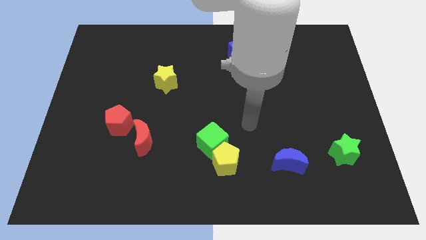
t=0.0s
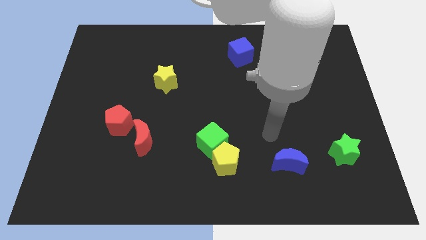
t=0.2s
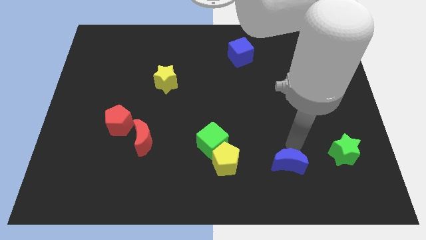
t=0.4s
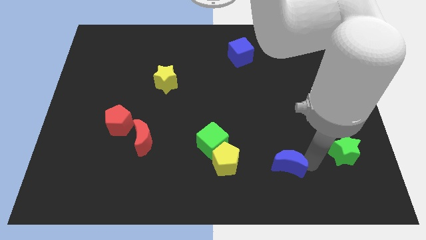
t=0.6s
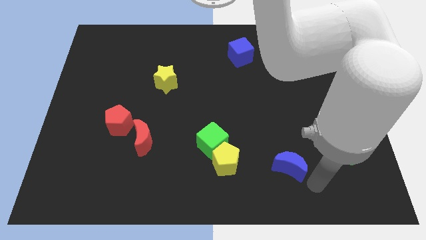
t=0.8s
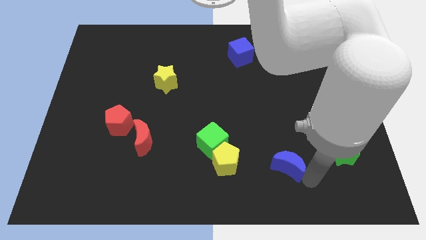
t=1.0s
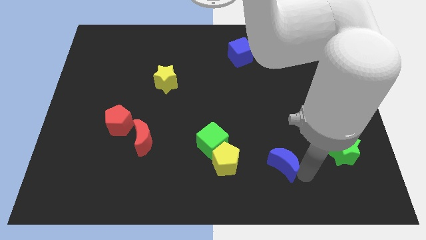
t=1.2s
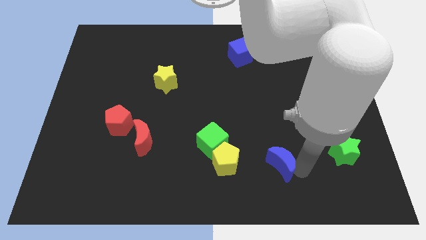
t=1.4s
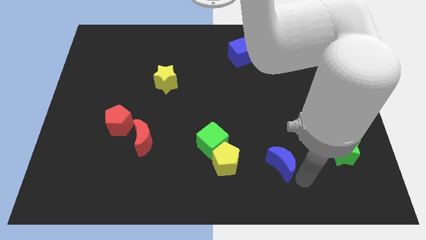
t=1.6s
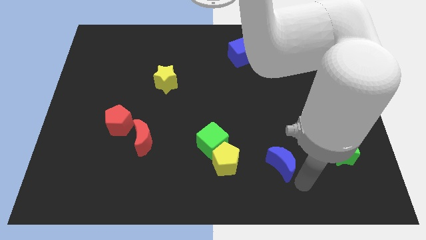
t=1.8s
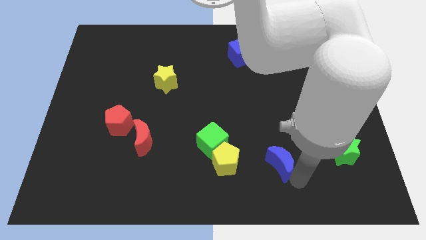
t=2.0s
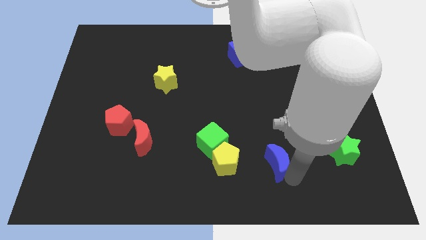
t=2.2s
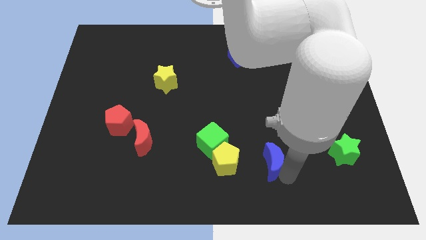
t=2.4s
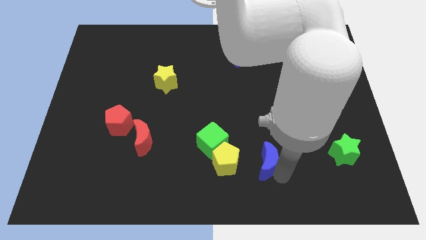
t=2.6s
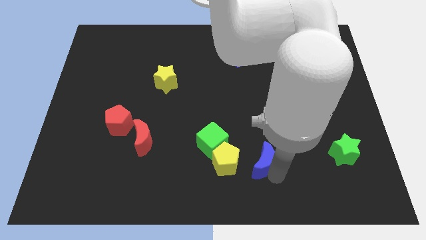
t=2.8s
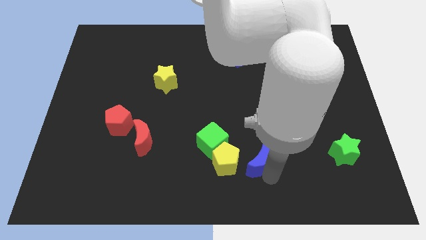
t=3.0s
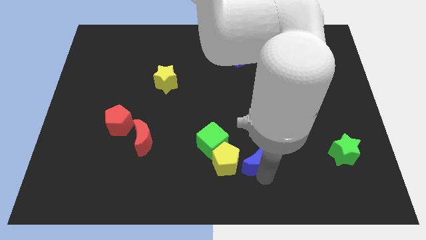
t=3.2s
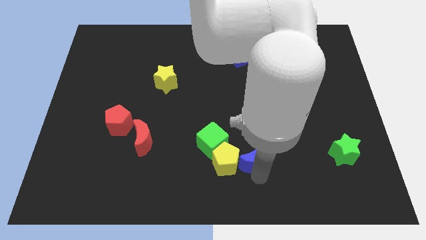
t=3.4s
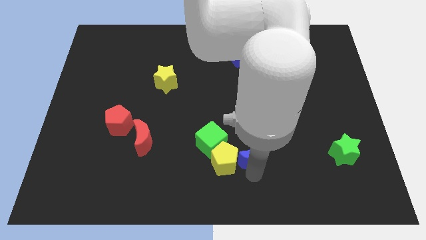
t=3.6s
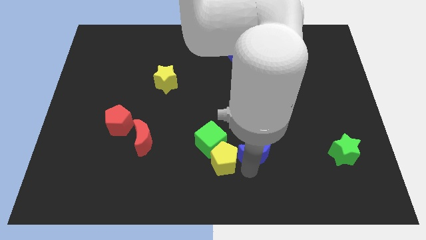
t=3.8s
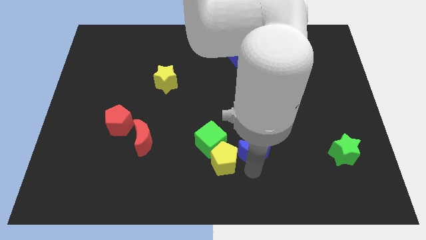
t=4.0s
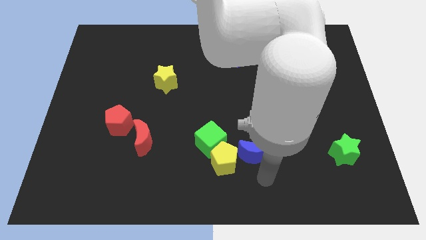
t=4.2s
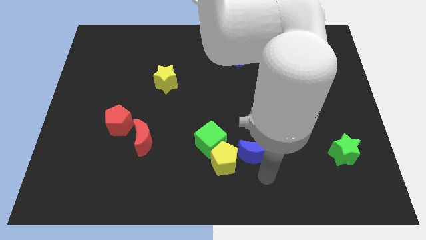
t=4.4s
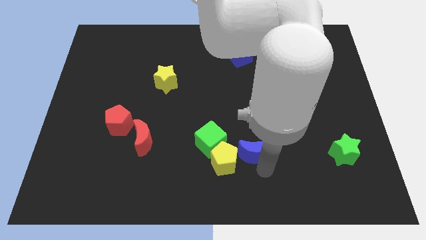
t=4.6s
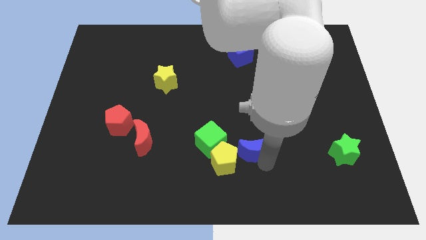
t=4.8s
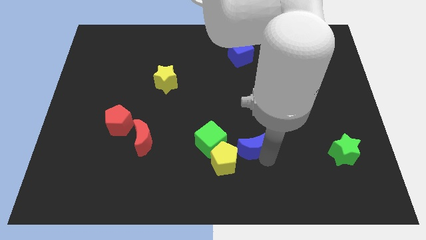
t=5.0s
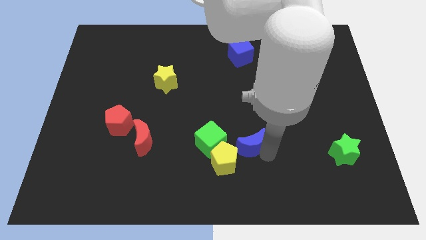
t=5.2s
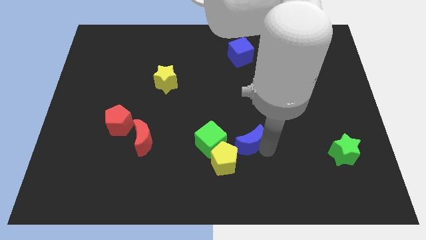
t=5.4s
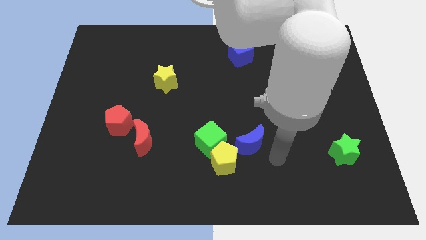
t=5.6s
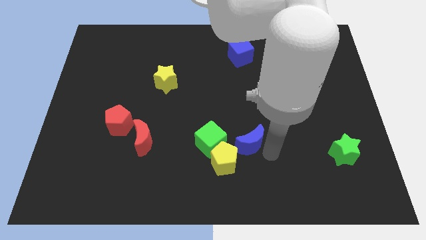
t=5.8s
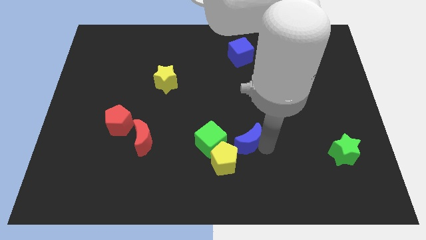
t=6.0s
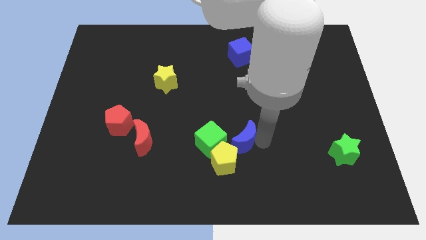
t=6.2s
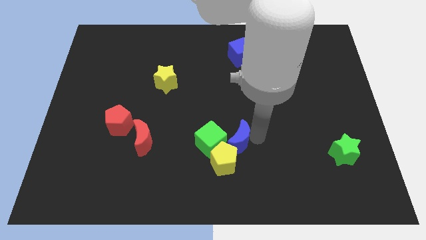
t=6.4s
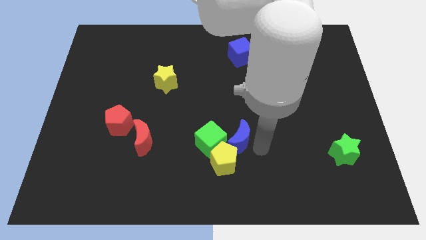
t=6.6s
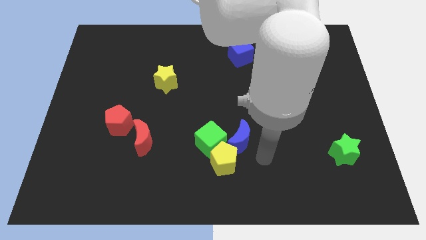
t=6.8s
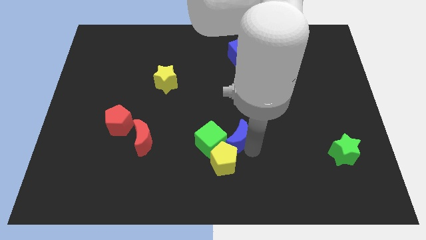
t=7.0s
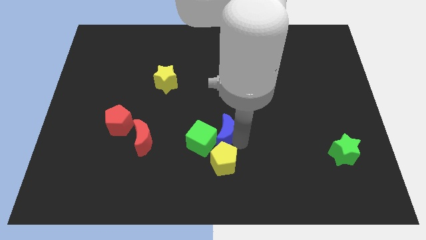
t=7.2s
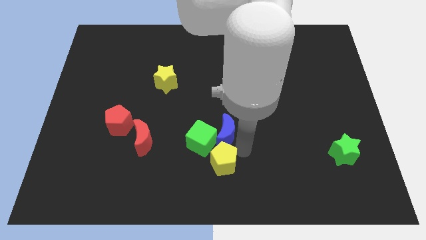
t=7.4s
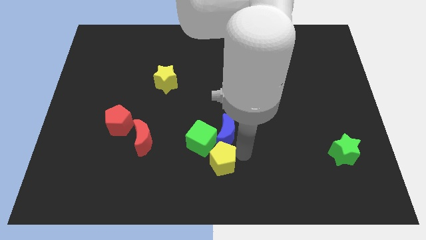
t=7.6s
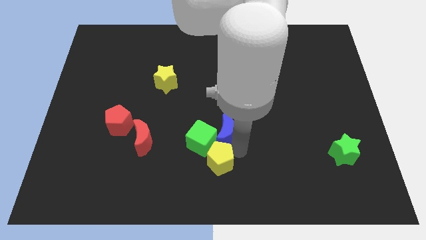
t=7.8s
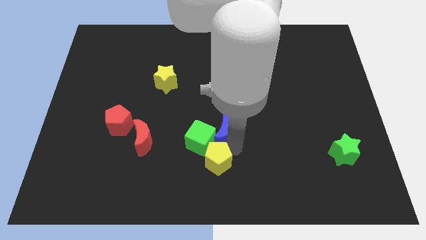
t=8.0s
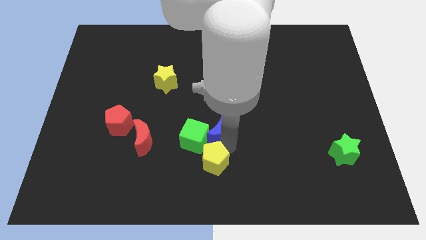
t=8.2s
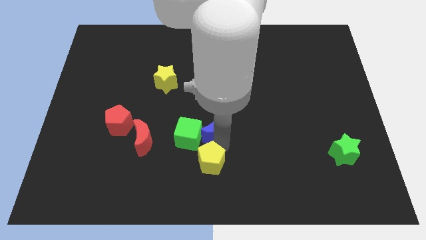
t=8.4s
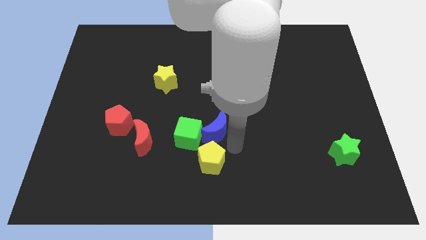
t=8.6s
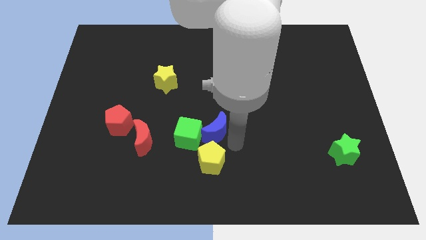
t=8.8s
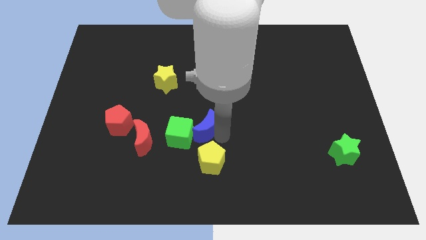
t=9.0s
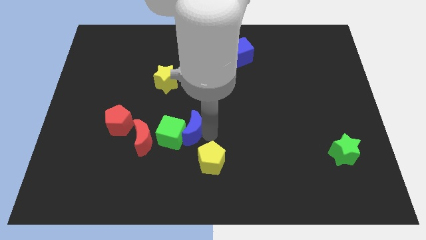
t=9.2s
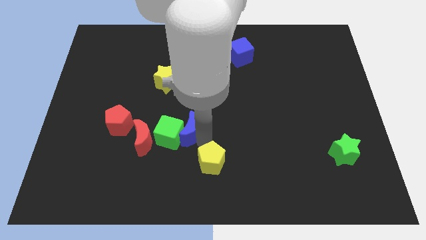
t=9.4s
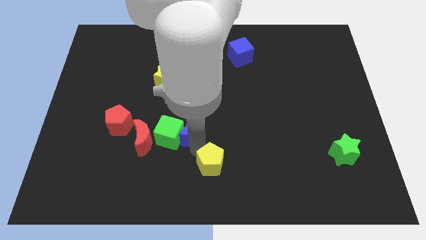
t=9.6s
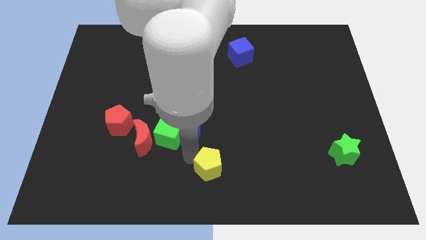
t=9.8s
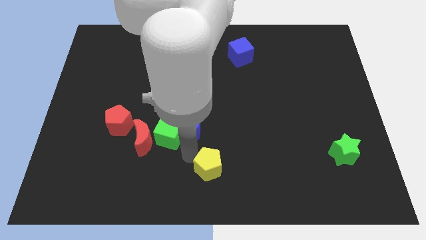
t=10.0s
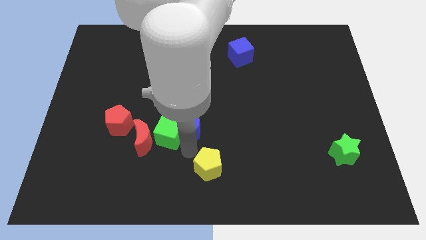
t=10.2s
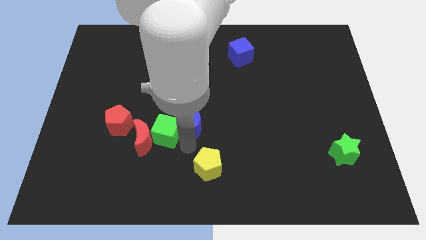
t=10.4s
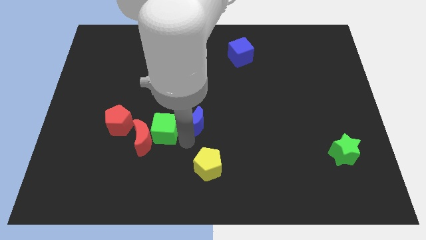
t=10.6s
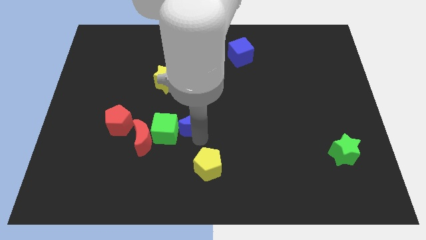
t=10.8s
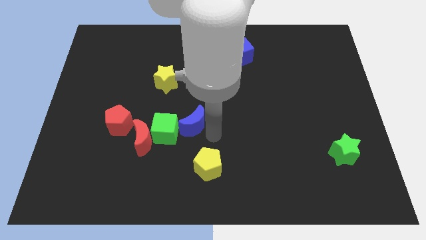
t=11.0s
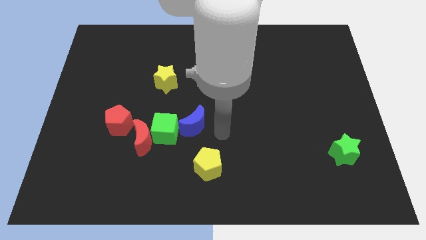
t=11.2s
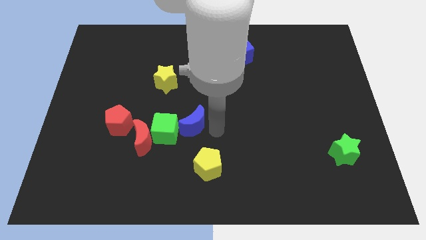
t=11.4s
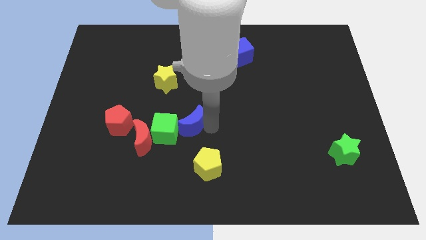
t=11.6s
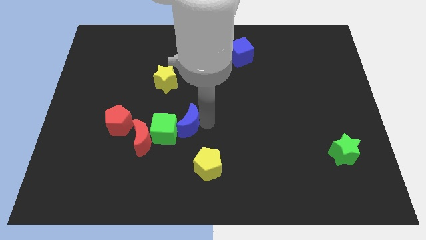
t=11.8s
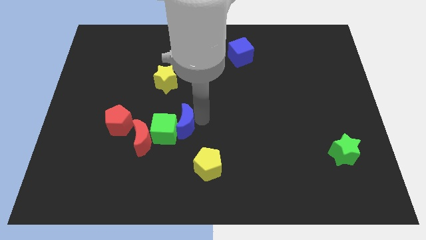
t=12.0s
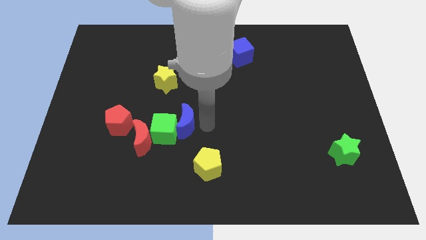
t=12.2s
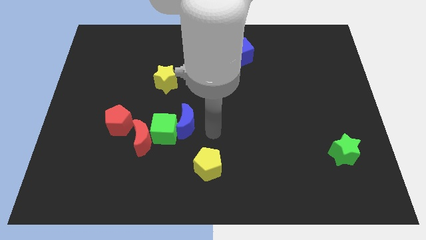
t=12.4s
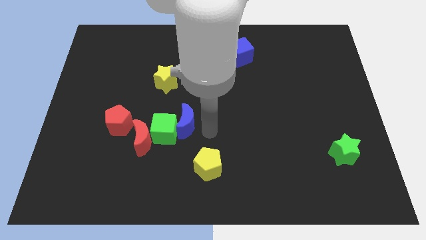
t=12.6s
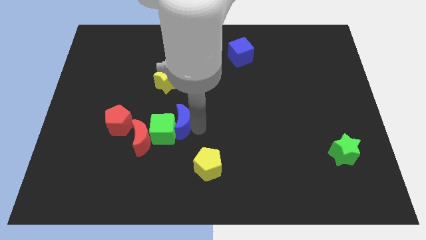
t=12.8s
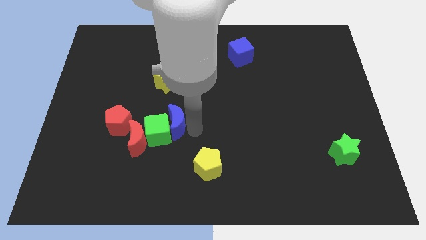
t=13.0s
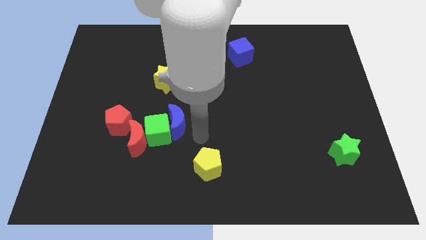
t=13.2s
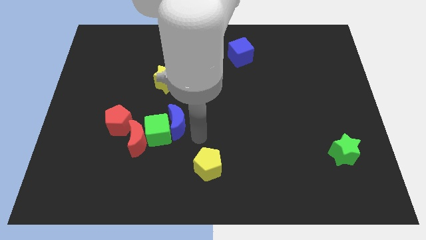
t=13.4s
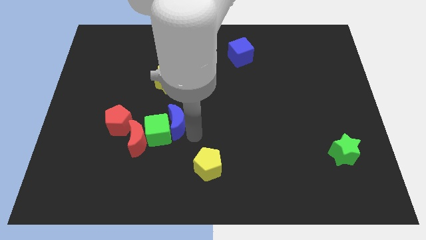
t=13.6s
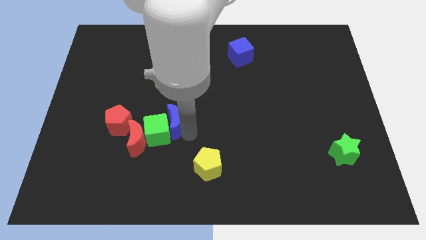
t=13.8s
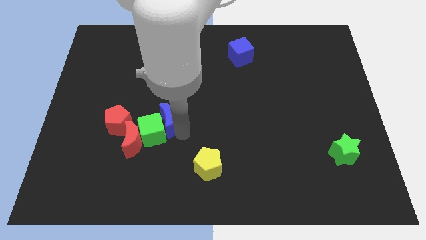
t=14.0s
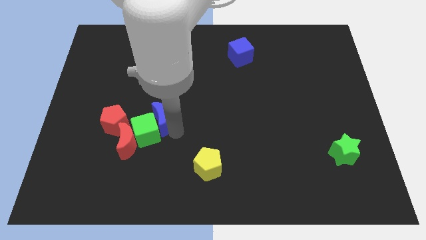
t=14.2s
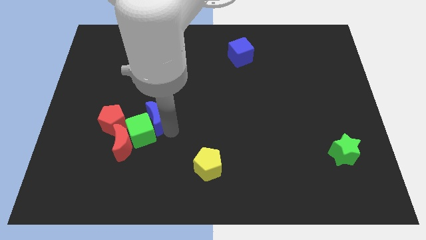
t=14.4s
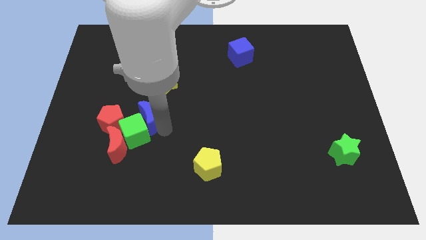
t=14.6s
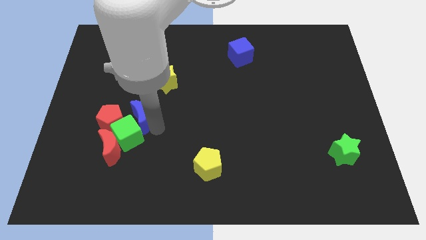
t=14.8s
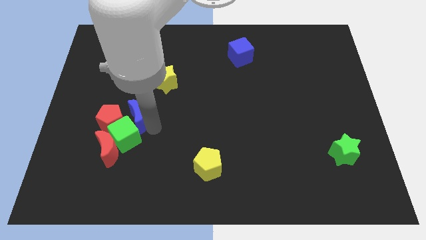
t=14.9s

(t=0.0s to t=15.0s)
put the blue moon to the red pentagon
